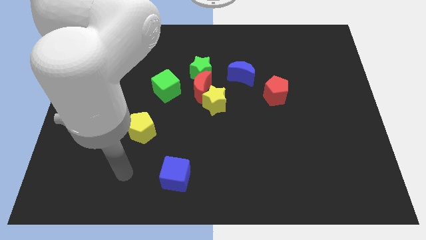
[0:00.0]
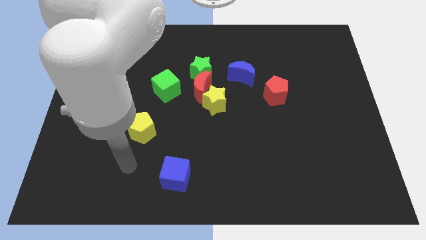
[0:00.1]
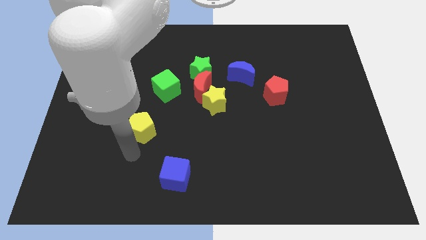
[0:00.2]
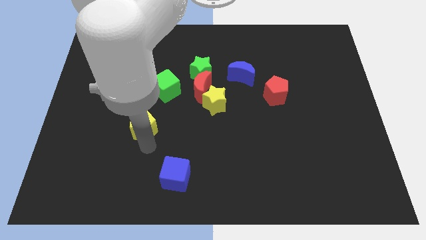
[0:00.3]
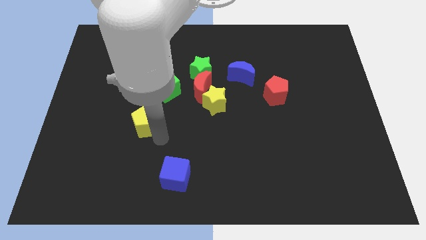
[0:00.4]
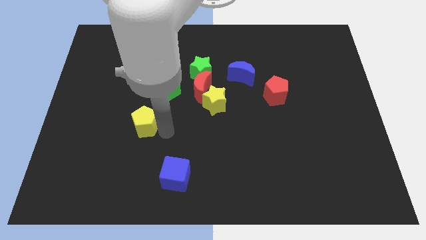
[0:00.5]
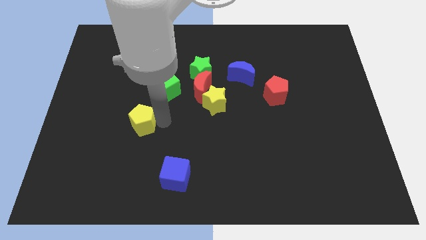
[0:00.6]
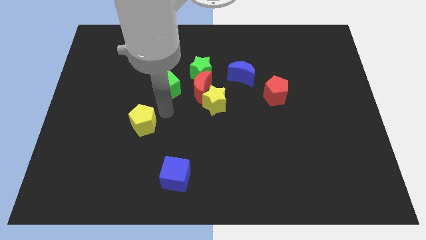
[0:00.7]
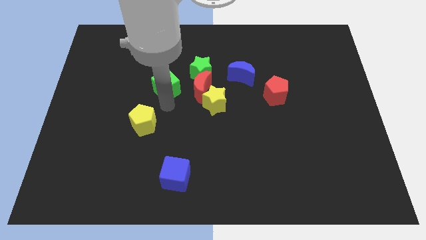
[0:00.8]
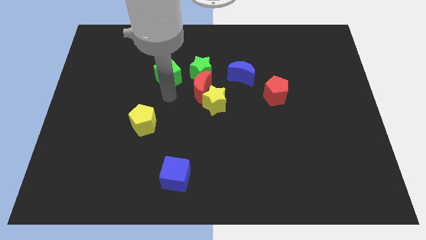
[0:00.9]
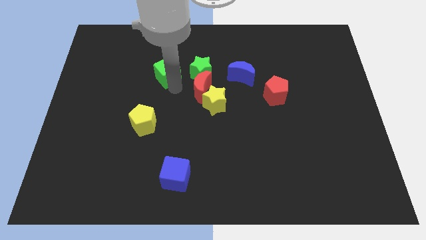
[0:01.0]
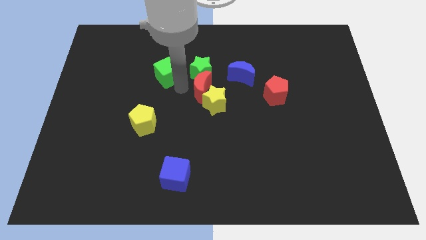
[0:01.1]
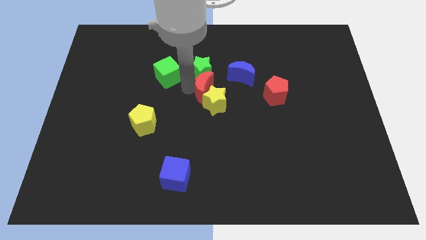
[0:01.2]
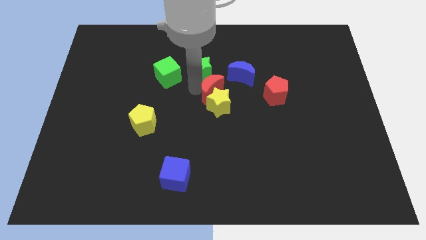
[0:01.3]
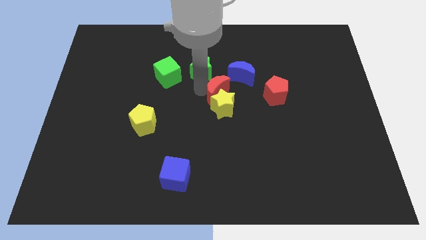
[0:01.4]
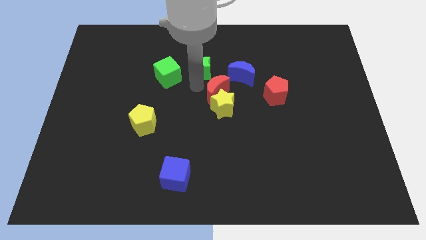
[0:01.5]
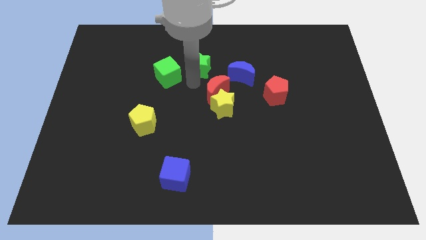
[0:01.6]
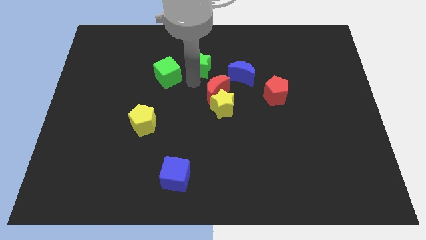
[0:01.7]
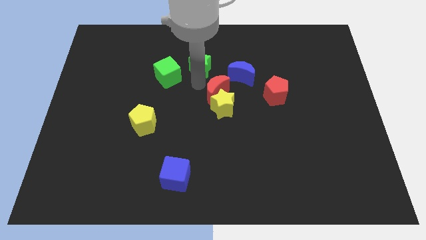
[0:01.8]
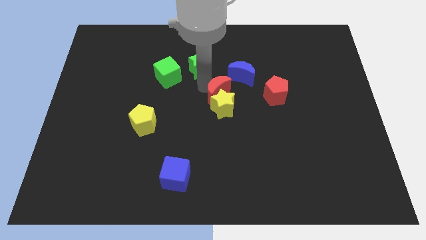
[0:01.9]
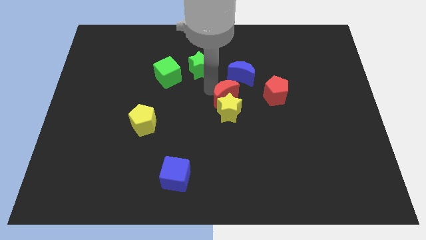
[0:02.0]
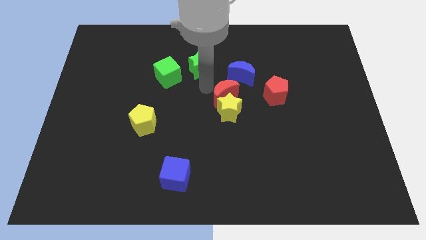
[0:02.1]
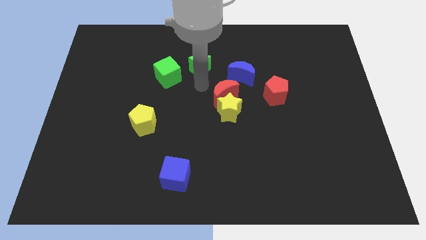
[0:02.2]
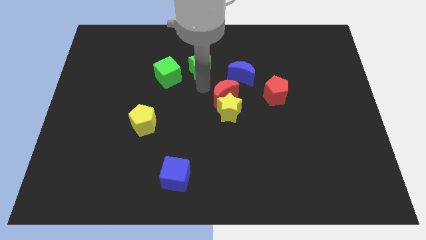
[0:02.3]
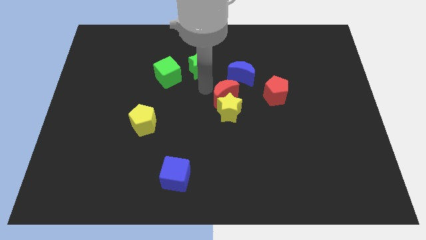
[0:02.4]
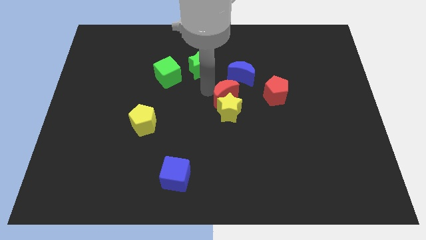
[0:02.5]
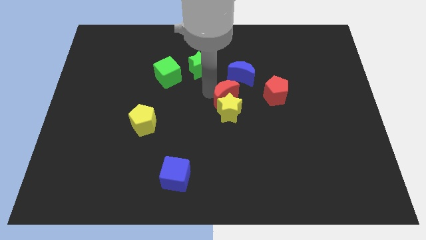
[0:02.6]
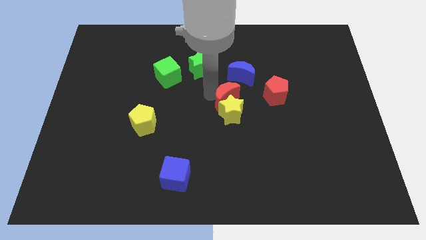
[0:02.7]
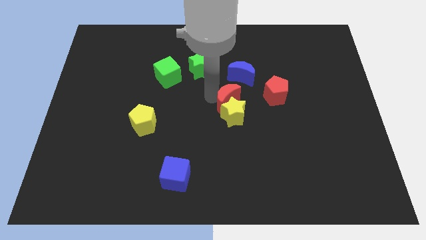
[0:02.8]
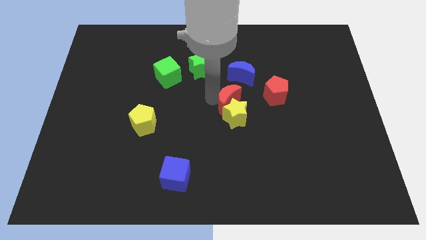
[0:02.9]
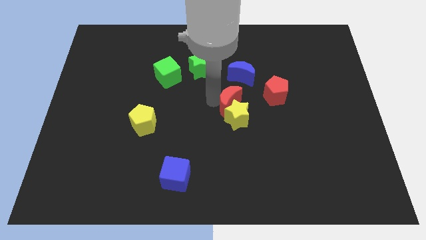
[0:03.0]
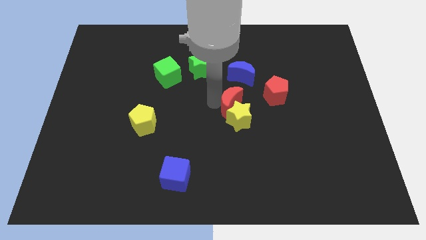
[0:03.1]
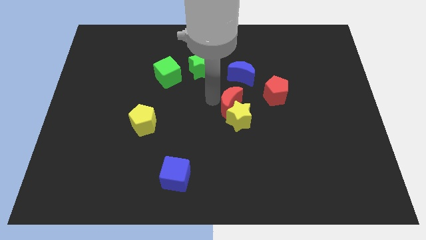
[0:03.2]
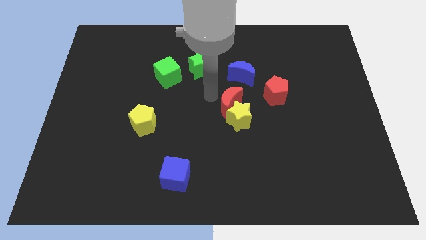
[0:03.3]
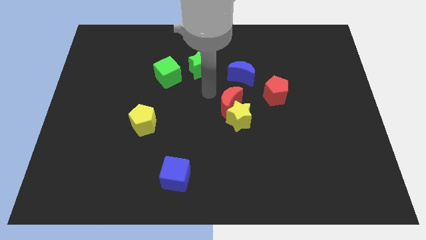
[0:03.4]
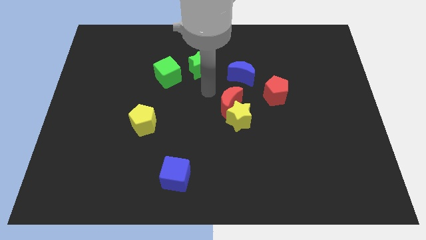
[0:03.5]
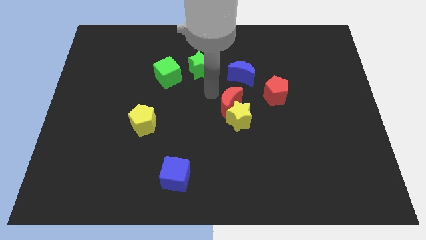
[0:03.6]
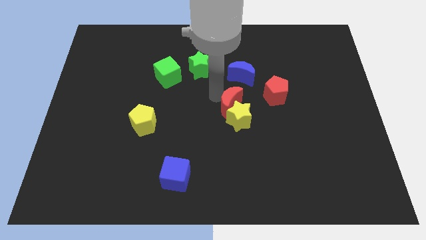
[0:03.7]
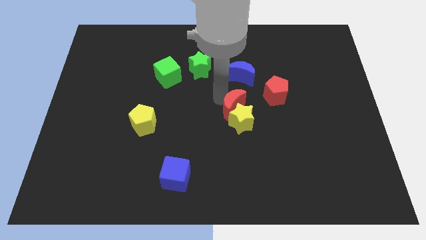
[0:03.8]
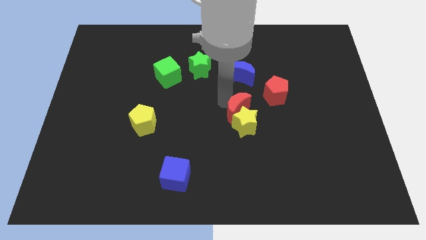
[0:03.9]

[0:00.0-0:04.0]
move the red moon away from the clump

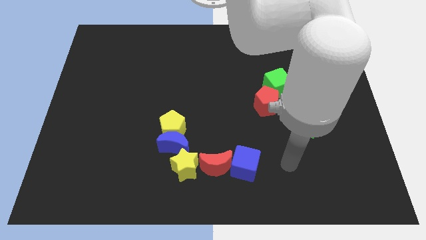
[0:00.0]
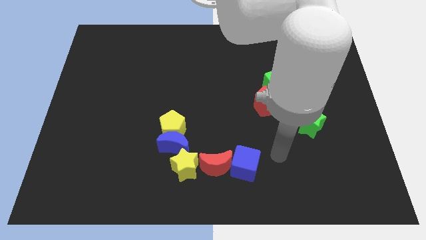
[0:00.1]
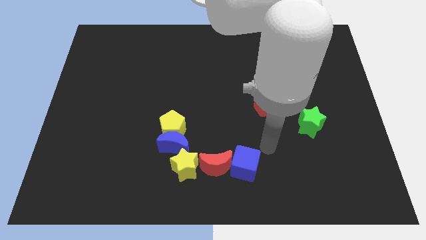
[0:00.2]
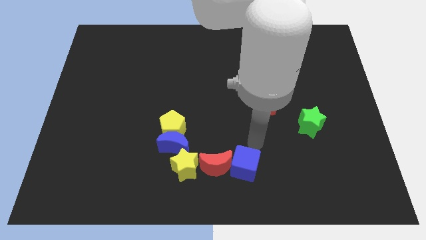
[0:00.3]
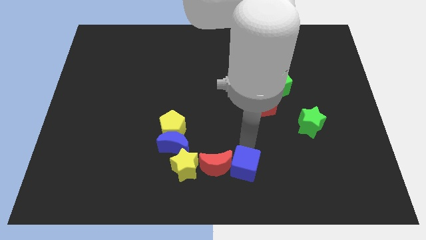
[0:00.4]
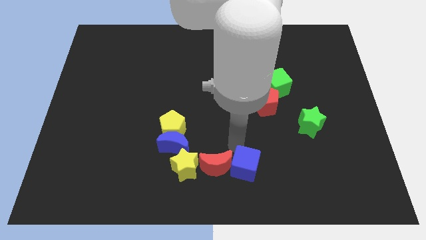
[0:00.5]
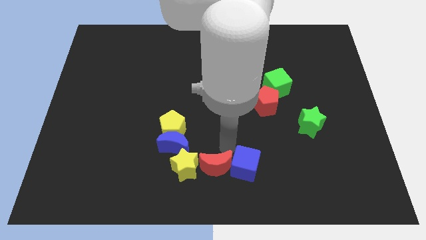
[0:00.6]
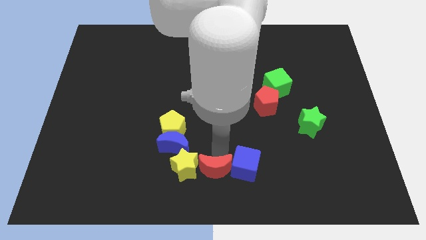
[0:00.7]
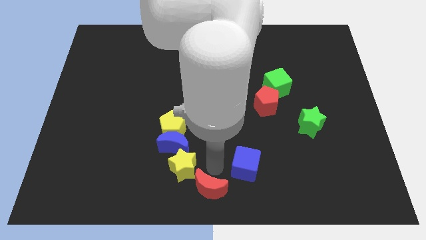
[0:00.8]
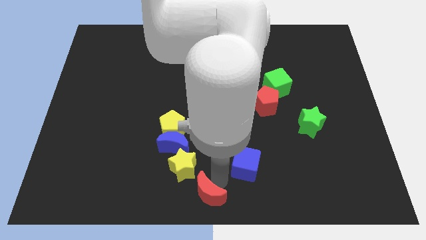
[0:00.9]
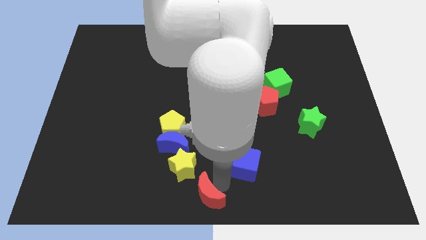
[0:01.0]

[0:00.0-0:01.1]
separate the blue cube from the red moon

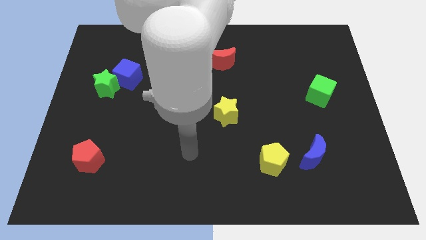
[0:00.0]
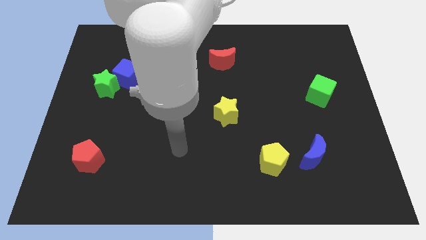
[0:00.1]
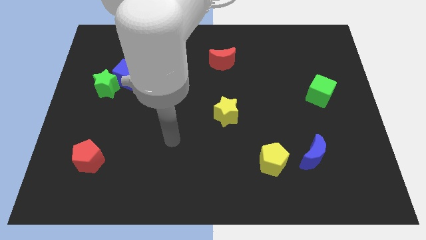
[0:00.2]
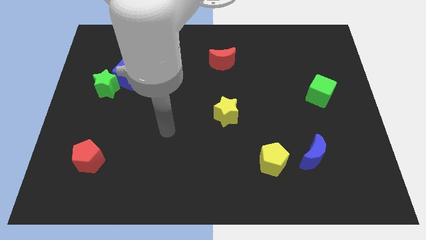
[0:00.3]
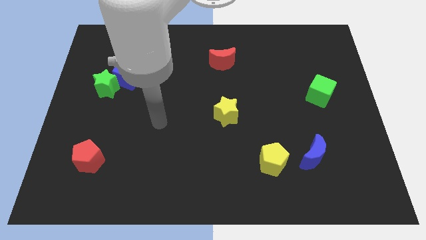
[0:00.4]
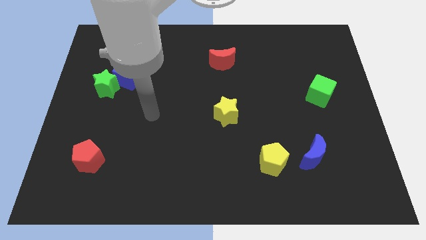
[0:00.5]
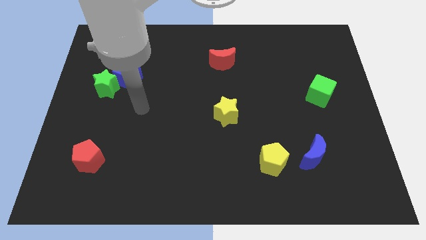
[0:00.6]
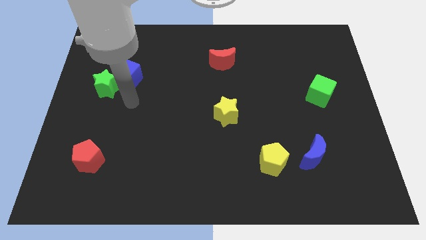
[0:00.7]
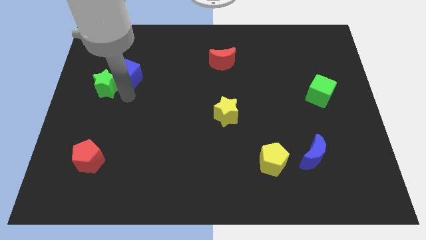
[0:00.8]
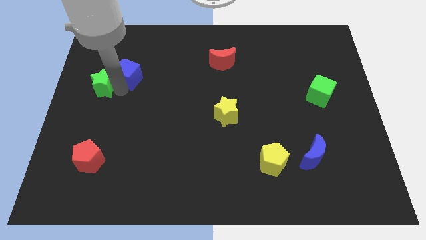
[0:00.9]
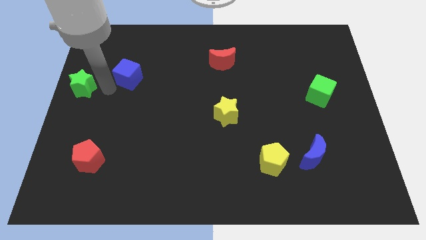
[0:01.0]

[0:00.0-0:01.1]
move the blue cube away from the green star

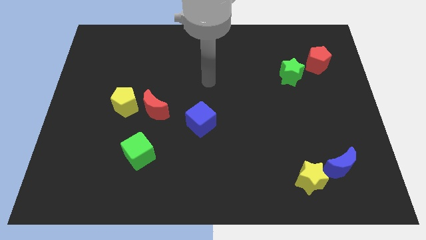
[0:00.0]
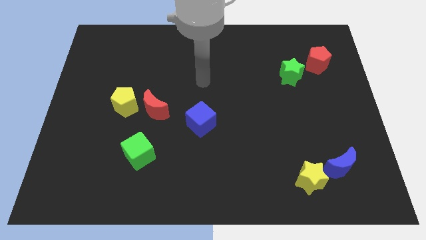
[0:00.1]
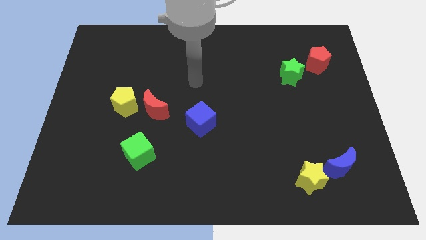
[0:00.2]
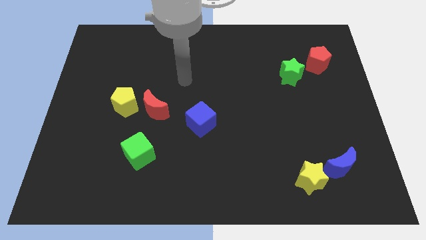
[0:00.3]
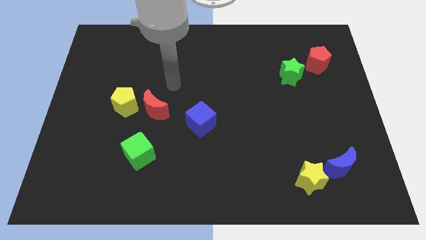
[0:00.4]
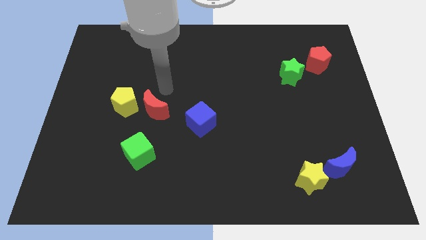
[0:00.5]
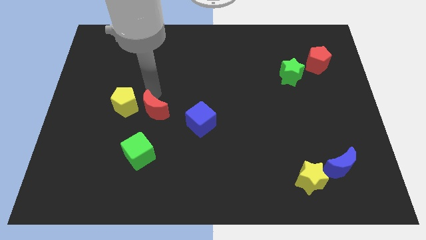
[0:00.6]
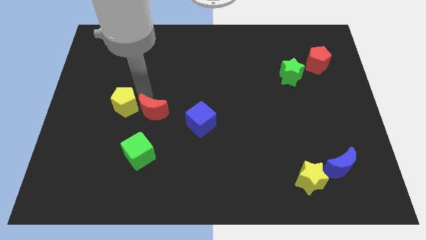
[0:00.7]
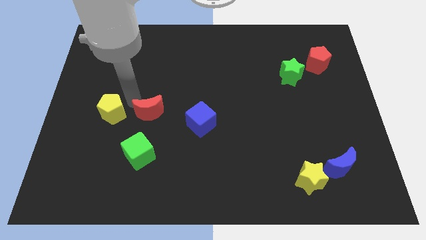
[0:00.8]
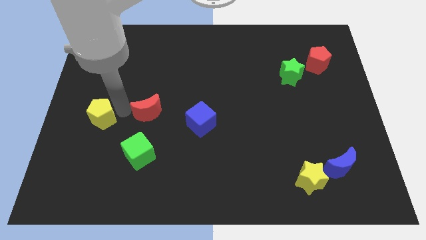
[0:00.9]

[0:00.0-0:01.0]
pull the red moon apart from the yellow pentagon

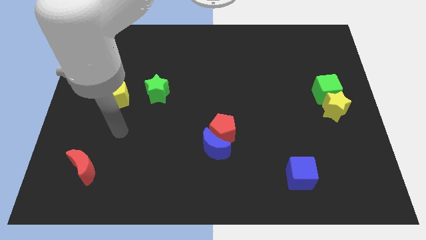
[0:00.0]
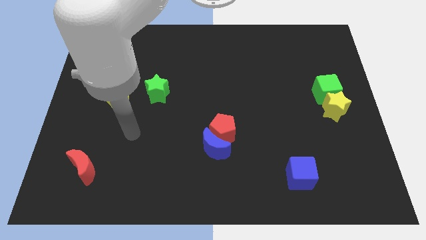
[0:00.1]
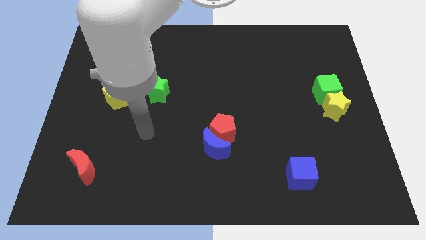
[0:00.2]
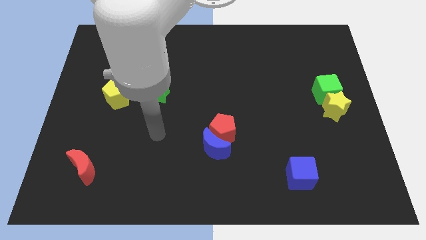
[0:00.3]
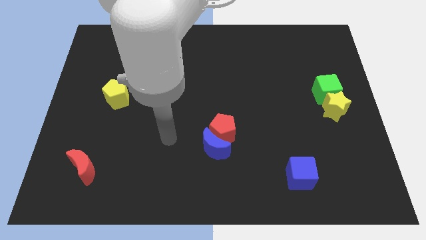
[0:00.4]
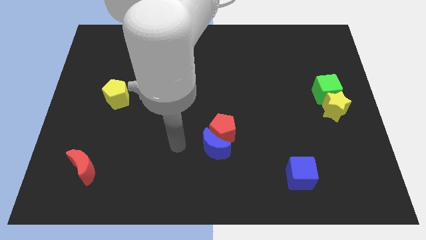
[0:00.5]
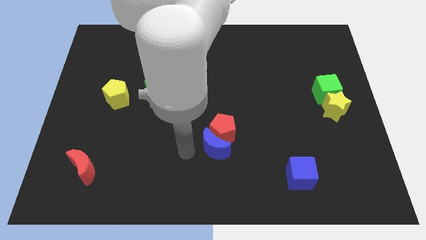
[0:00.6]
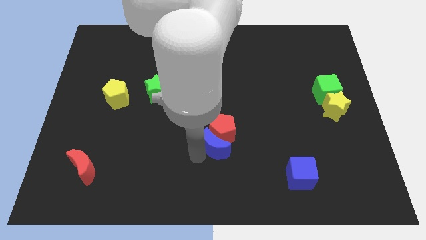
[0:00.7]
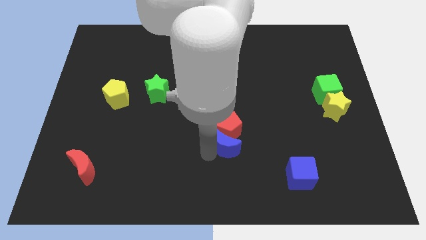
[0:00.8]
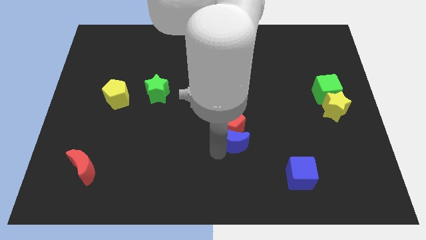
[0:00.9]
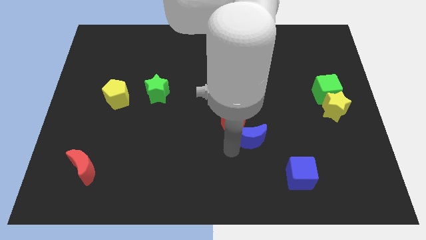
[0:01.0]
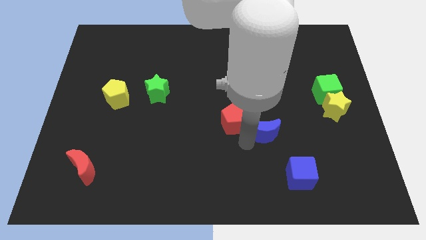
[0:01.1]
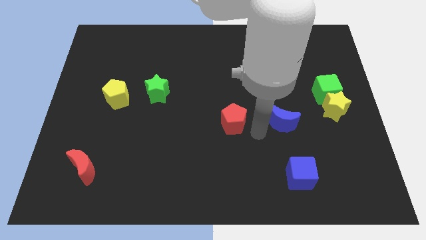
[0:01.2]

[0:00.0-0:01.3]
move the red pentagon away from the blue moon

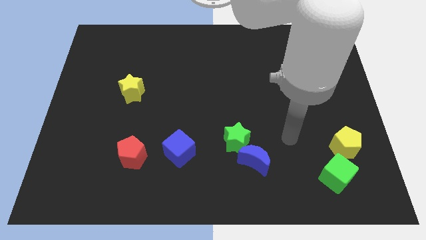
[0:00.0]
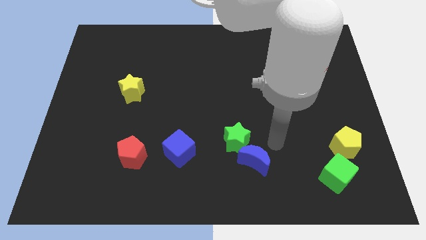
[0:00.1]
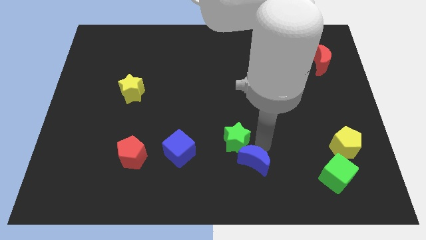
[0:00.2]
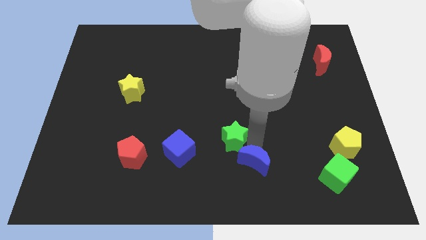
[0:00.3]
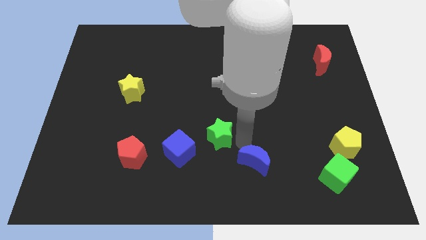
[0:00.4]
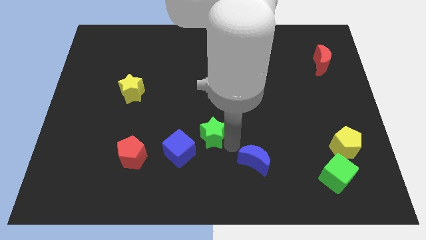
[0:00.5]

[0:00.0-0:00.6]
move the blue moon away from the green star

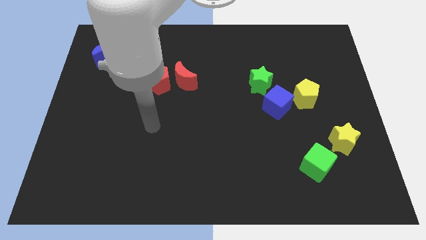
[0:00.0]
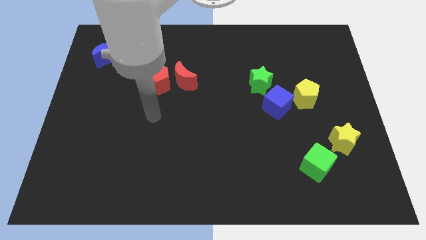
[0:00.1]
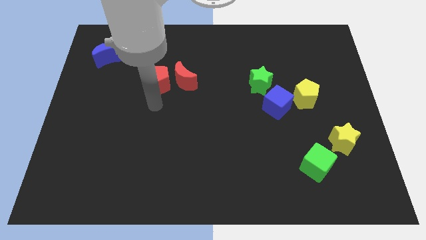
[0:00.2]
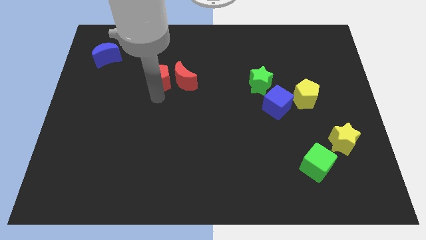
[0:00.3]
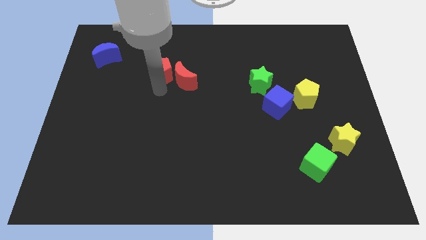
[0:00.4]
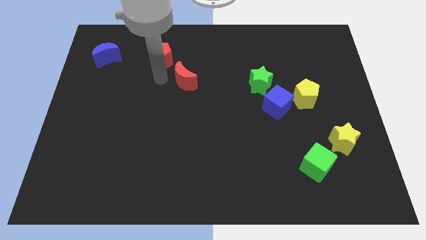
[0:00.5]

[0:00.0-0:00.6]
separate the red moon from the red pentagon
